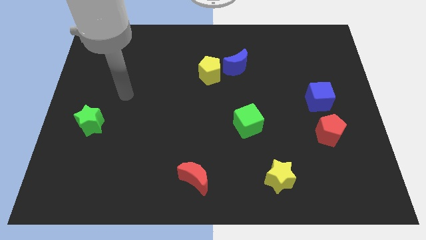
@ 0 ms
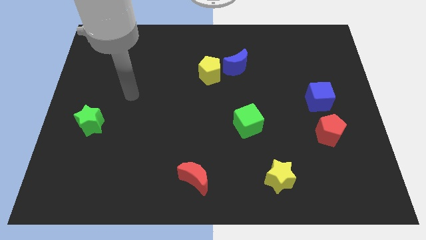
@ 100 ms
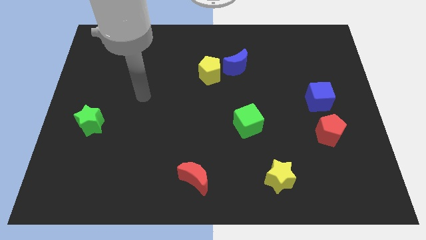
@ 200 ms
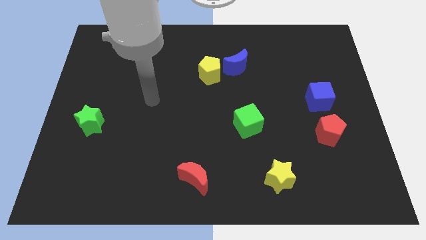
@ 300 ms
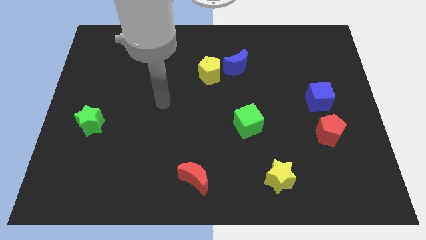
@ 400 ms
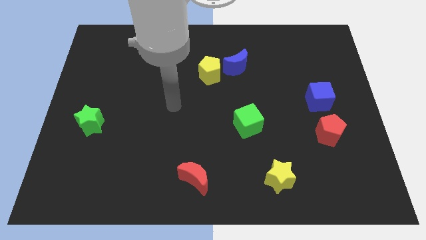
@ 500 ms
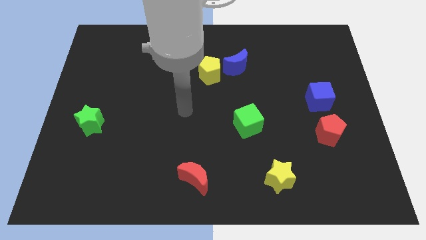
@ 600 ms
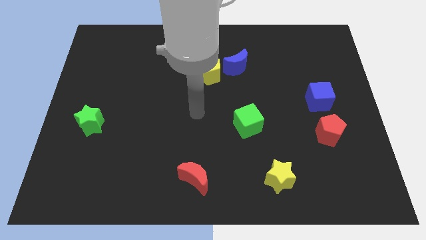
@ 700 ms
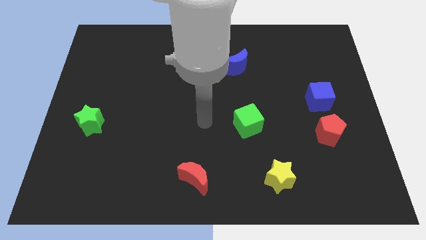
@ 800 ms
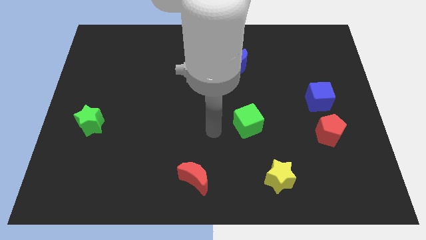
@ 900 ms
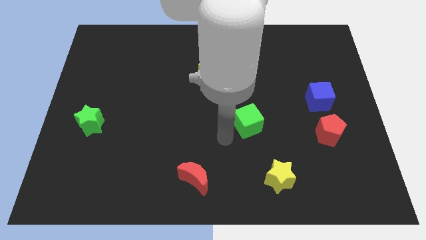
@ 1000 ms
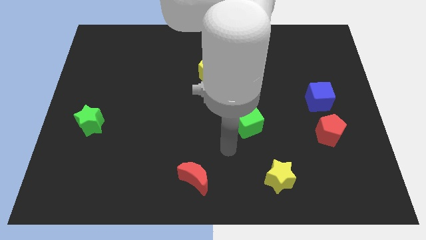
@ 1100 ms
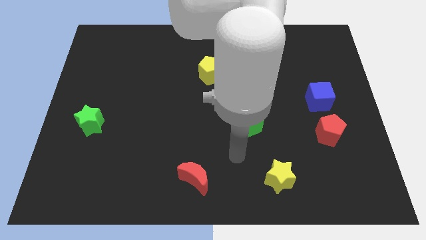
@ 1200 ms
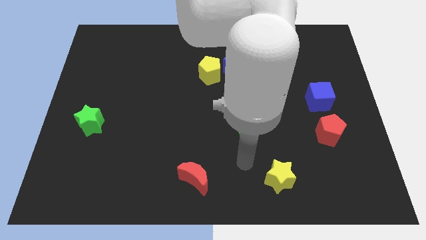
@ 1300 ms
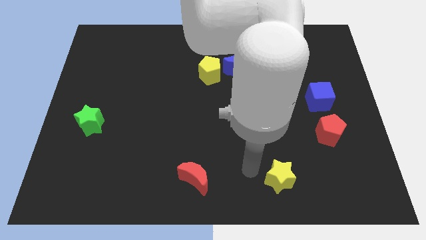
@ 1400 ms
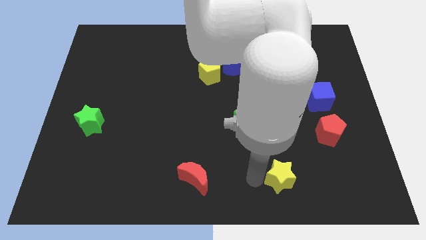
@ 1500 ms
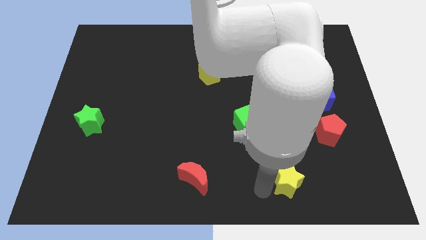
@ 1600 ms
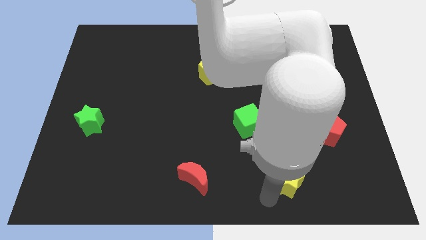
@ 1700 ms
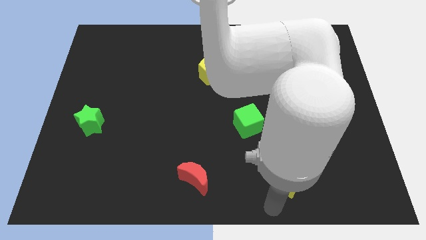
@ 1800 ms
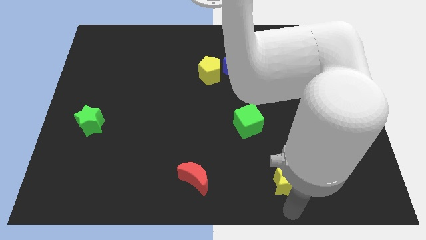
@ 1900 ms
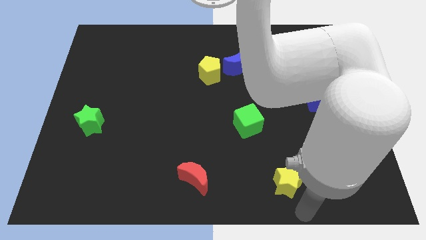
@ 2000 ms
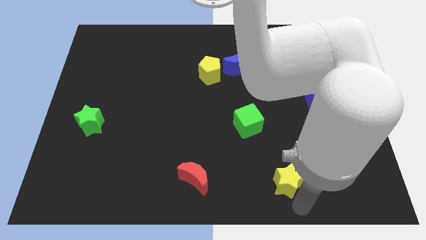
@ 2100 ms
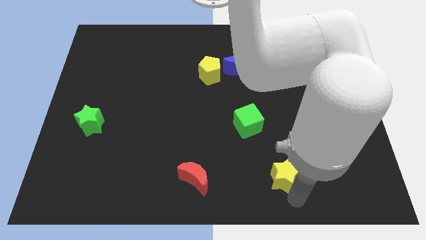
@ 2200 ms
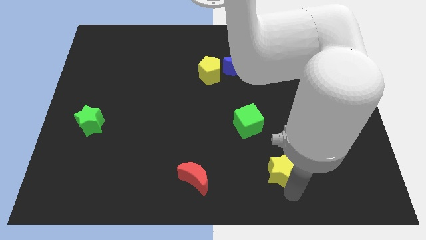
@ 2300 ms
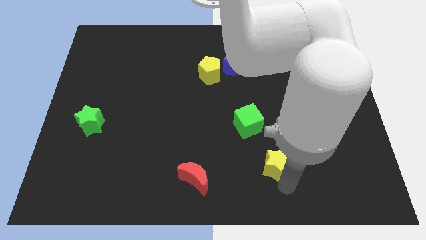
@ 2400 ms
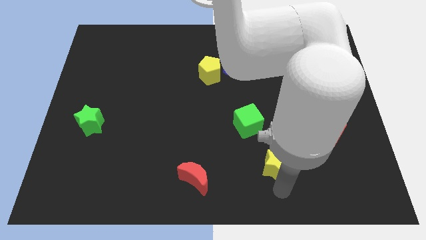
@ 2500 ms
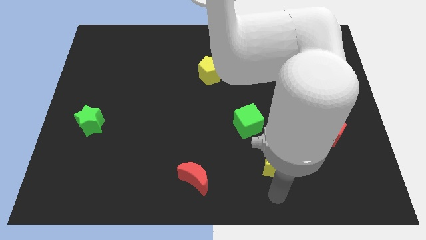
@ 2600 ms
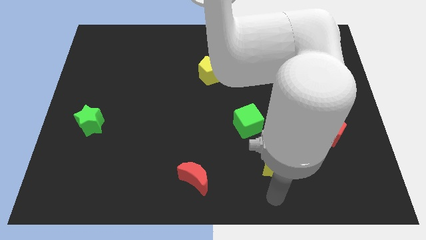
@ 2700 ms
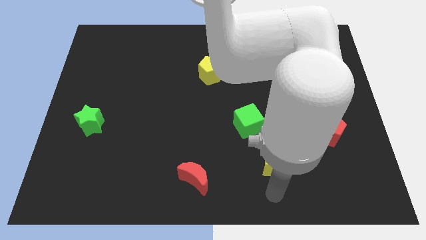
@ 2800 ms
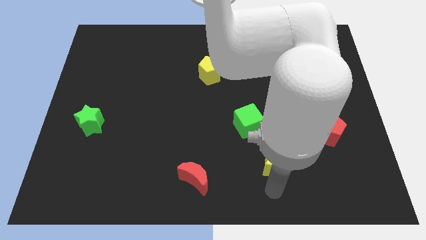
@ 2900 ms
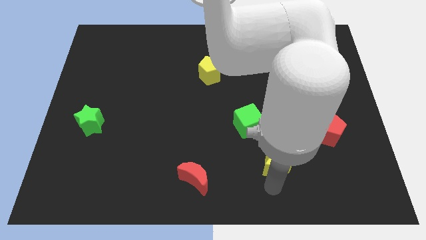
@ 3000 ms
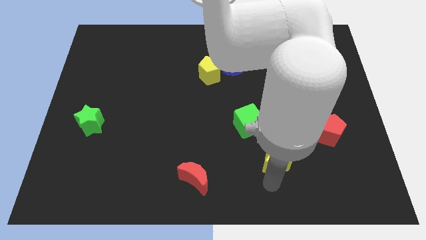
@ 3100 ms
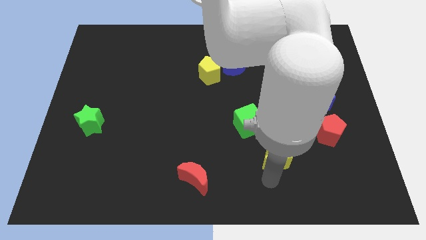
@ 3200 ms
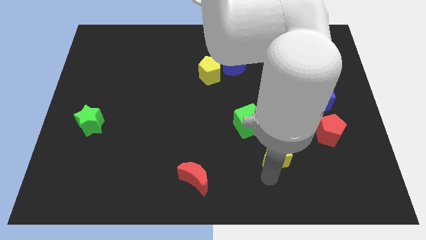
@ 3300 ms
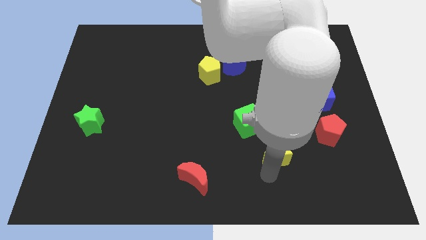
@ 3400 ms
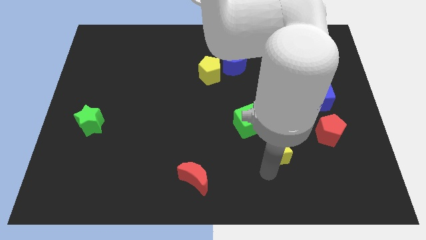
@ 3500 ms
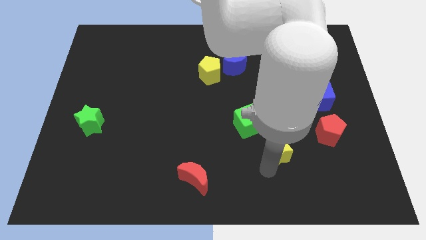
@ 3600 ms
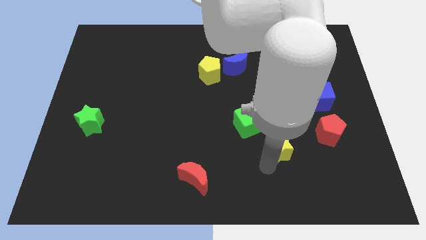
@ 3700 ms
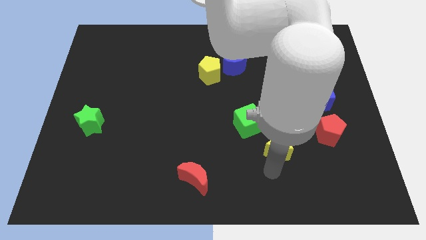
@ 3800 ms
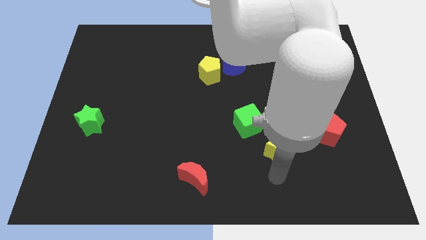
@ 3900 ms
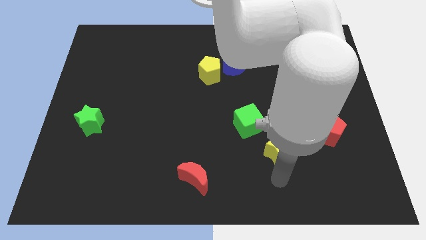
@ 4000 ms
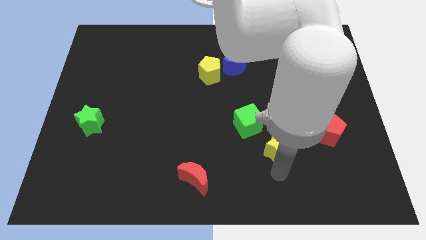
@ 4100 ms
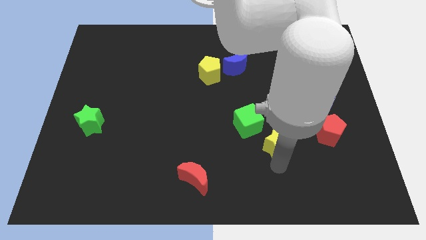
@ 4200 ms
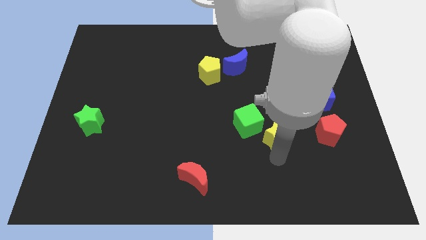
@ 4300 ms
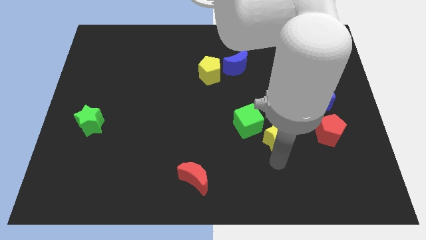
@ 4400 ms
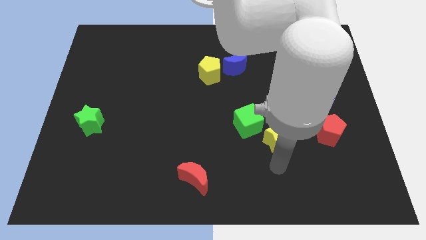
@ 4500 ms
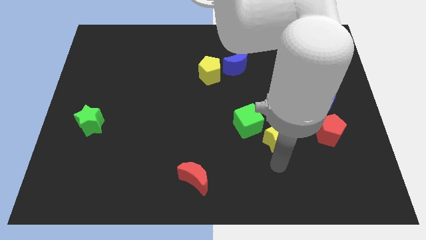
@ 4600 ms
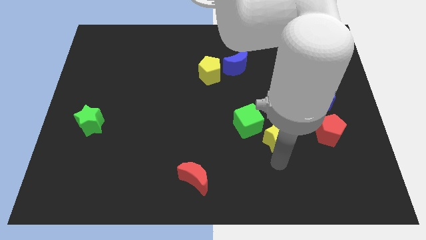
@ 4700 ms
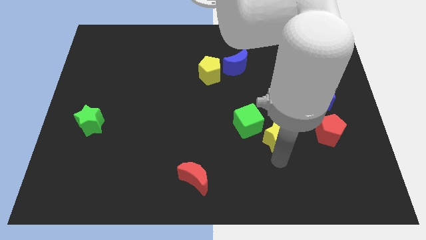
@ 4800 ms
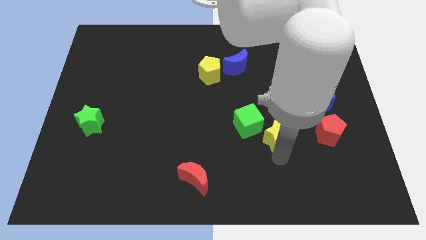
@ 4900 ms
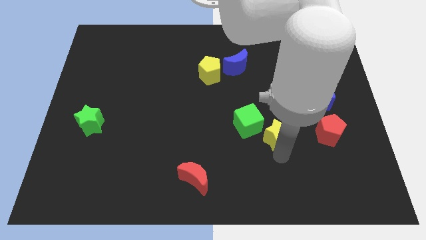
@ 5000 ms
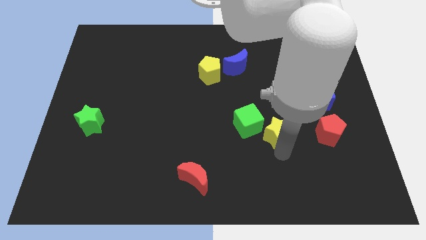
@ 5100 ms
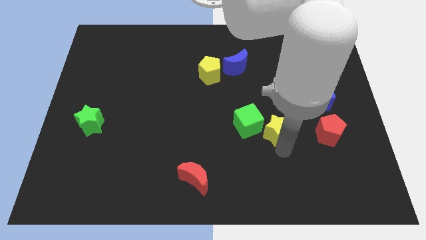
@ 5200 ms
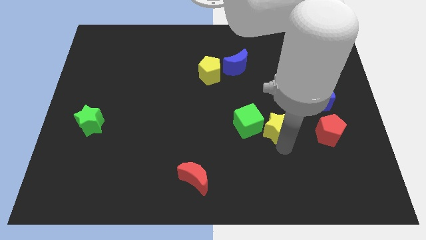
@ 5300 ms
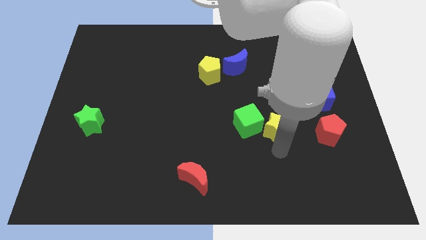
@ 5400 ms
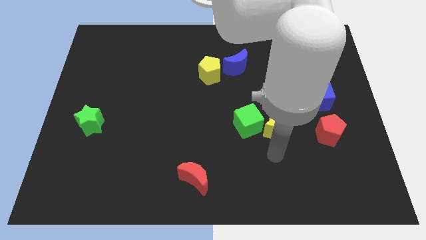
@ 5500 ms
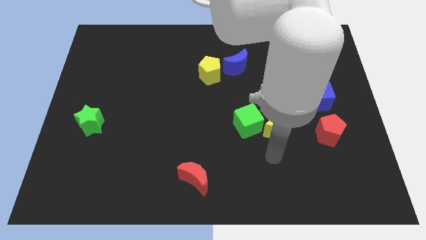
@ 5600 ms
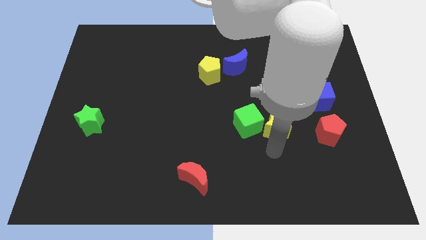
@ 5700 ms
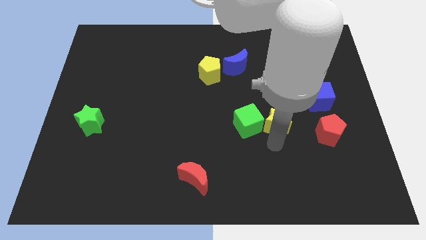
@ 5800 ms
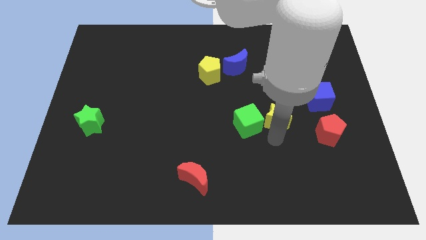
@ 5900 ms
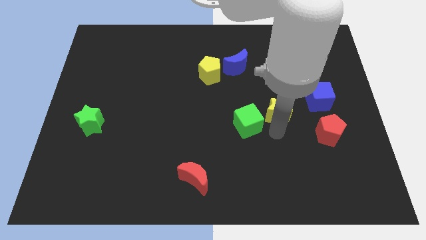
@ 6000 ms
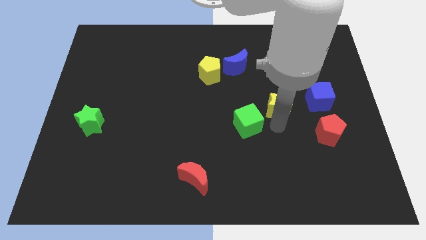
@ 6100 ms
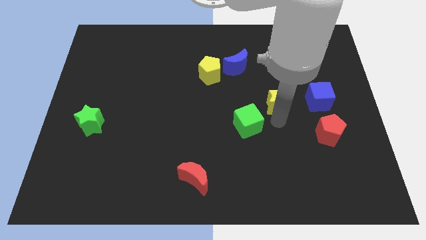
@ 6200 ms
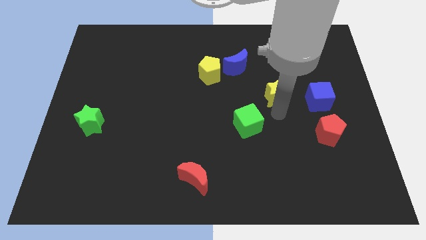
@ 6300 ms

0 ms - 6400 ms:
move the yellow star upwards
